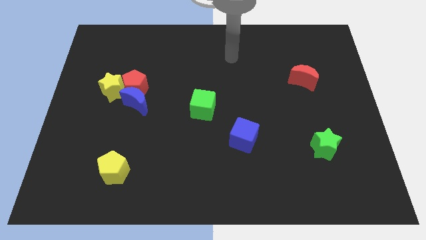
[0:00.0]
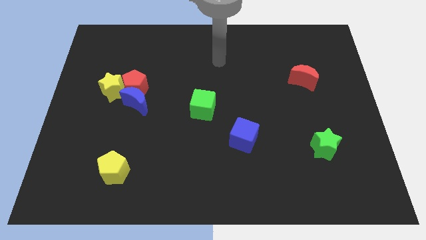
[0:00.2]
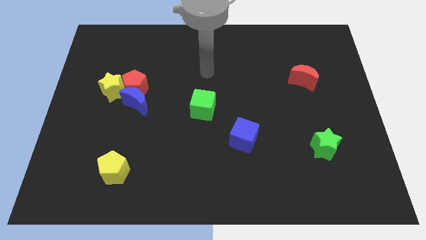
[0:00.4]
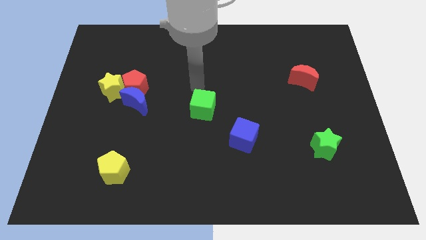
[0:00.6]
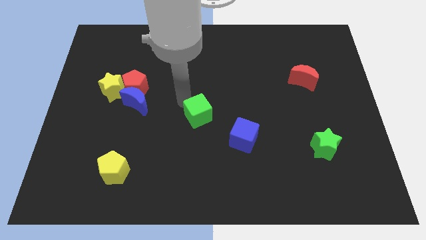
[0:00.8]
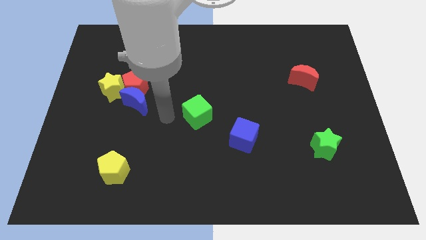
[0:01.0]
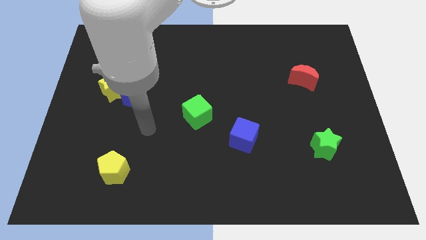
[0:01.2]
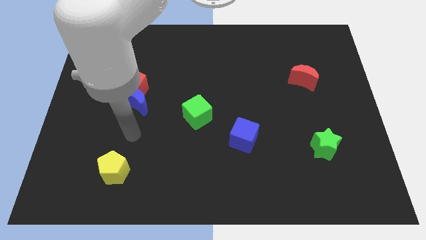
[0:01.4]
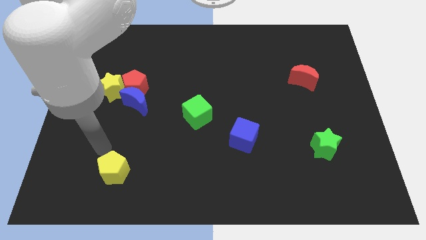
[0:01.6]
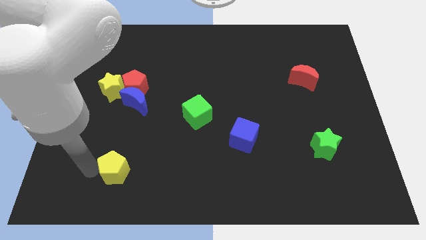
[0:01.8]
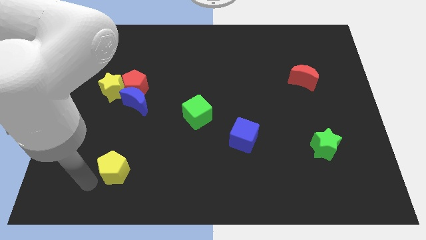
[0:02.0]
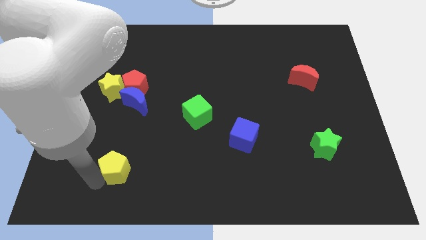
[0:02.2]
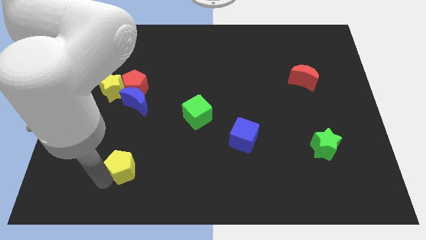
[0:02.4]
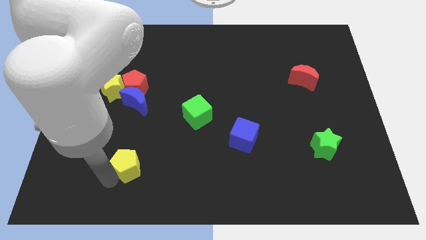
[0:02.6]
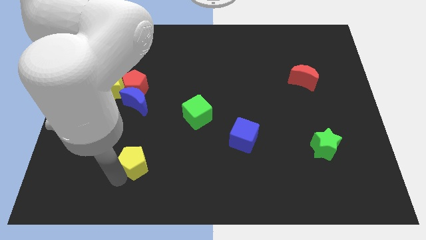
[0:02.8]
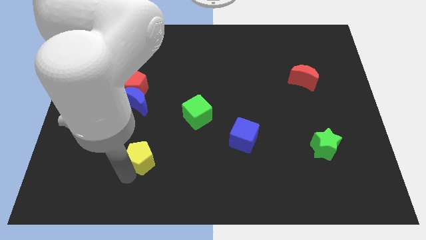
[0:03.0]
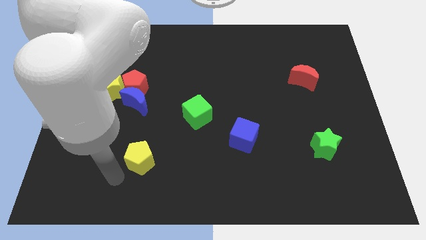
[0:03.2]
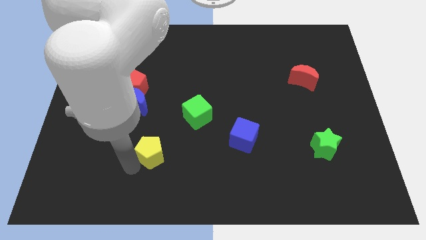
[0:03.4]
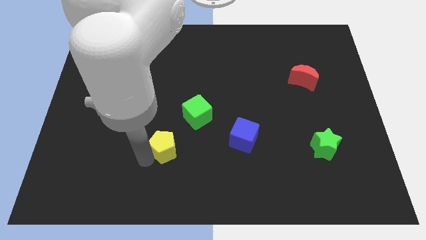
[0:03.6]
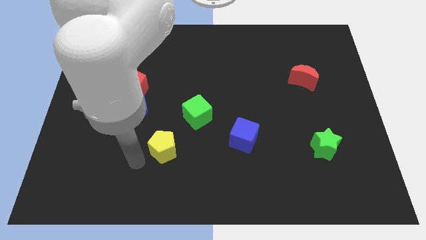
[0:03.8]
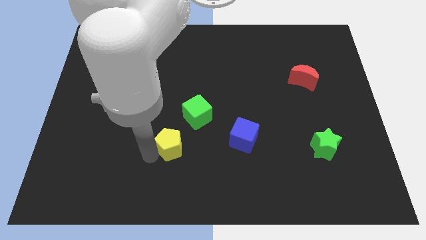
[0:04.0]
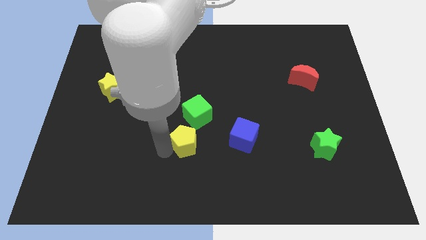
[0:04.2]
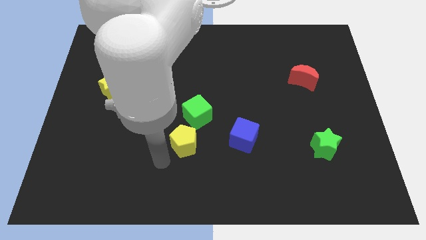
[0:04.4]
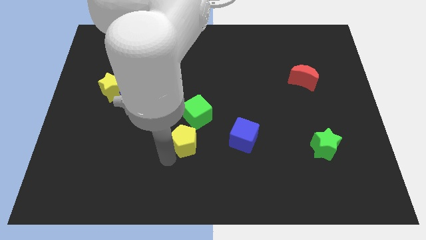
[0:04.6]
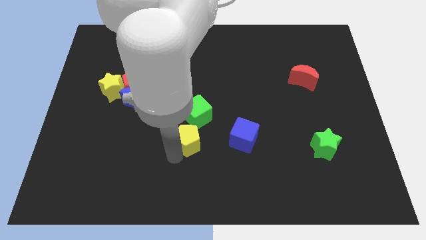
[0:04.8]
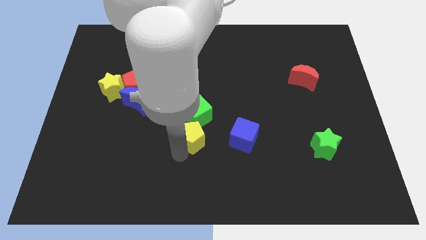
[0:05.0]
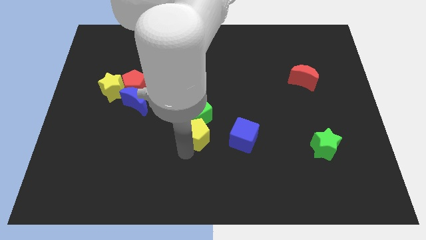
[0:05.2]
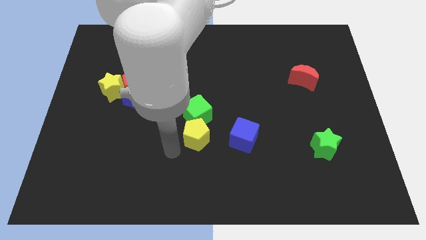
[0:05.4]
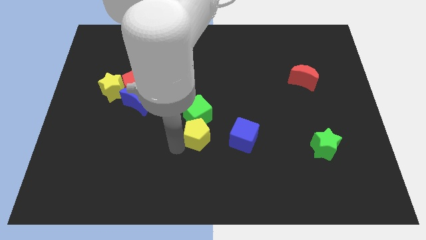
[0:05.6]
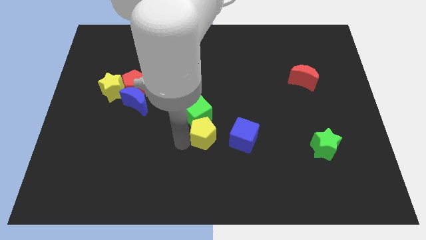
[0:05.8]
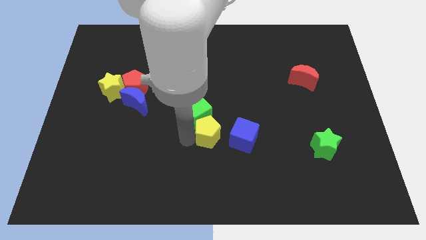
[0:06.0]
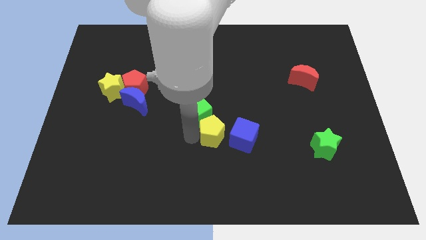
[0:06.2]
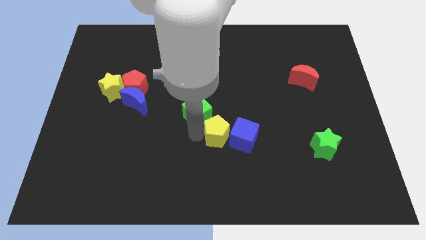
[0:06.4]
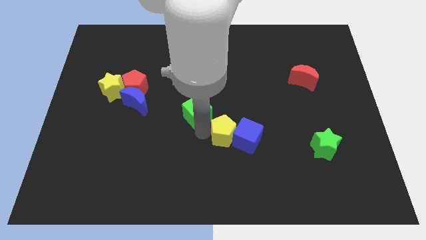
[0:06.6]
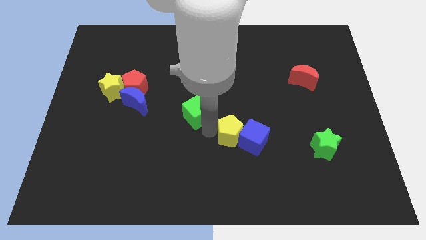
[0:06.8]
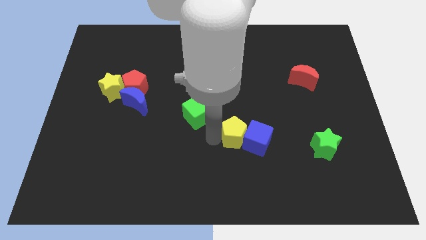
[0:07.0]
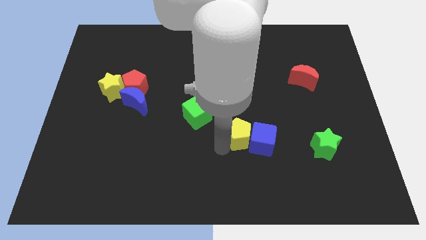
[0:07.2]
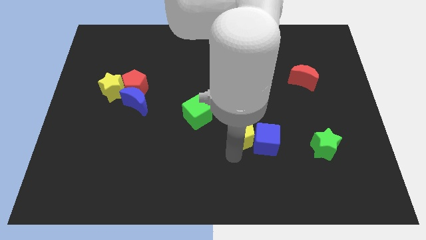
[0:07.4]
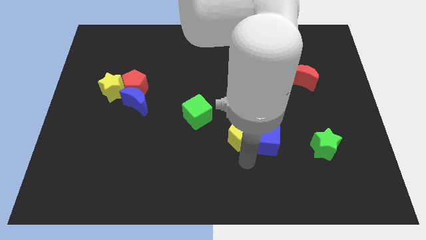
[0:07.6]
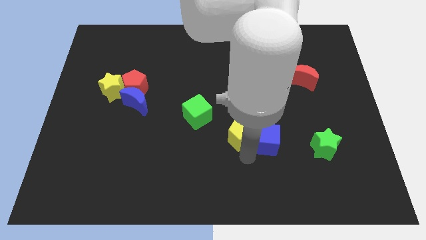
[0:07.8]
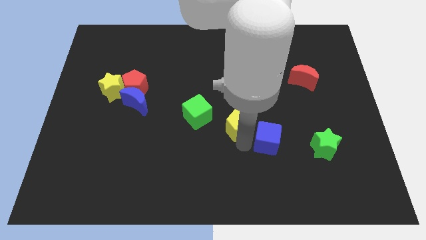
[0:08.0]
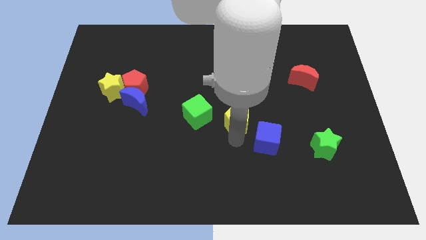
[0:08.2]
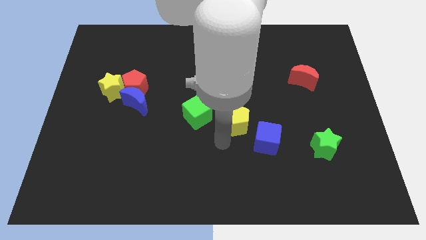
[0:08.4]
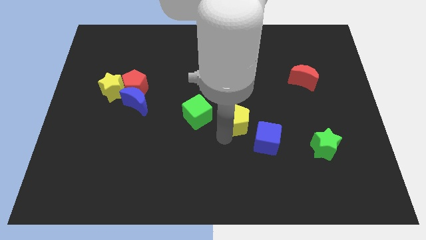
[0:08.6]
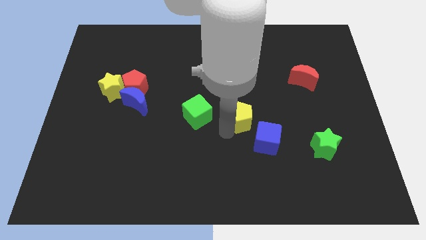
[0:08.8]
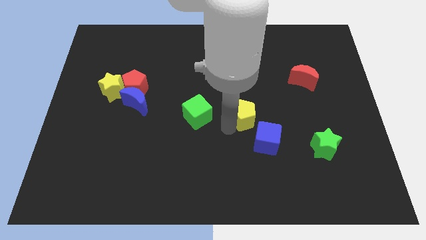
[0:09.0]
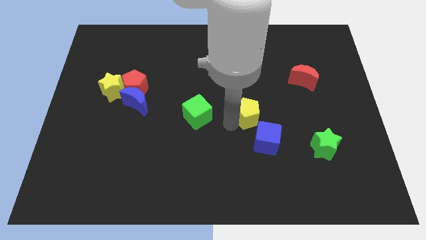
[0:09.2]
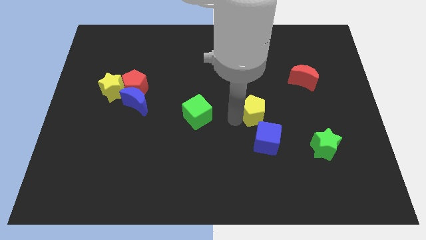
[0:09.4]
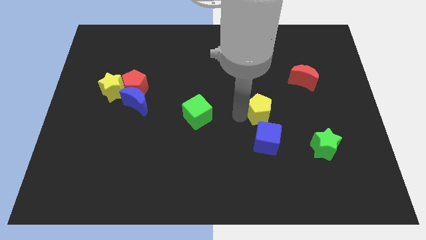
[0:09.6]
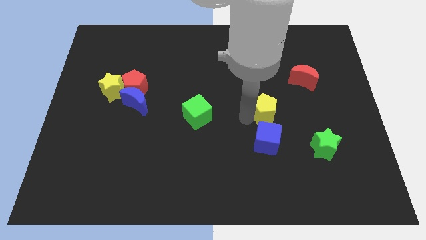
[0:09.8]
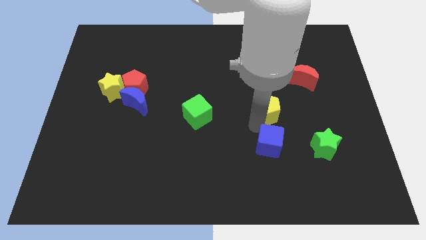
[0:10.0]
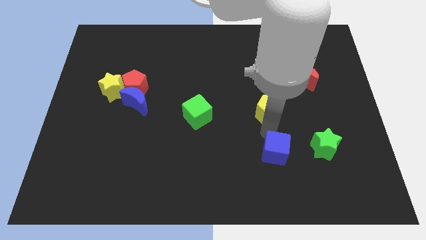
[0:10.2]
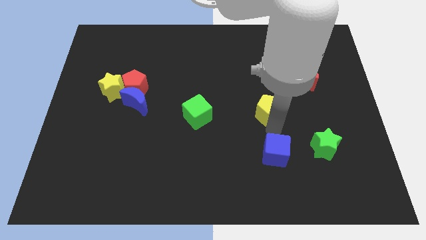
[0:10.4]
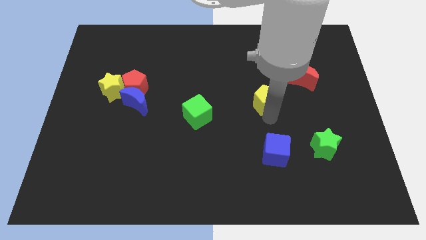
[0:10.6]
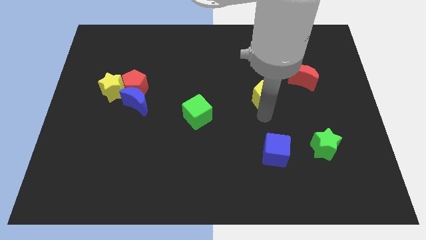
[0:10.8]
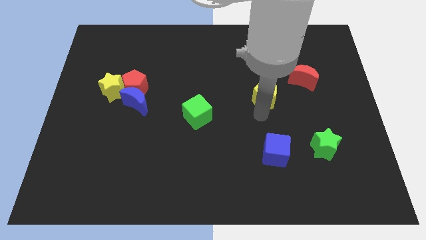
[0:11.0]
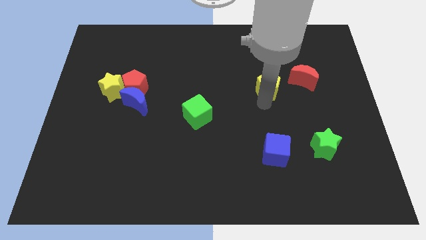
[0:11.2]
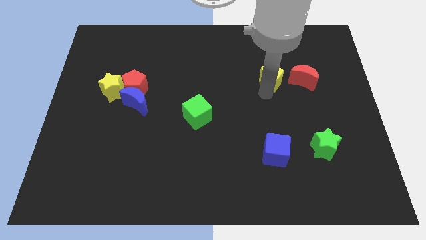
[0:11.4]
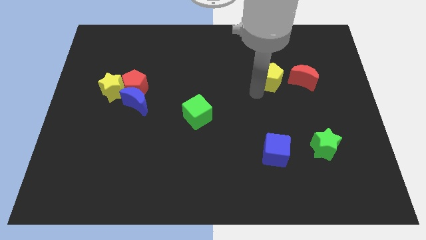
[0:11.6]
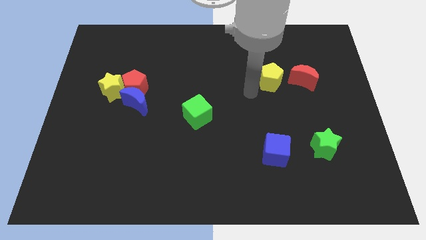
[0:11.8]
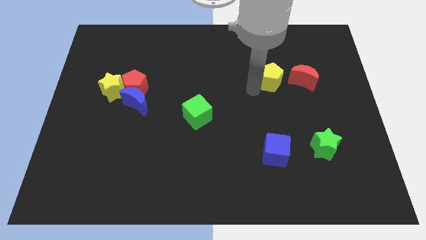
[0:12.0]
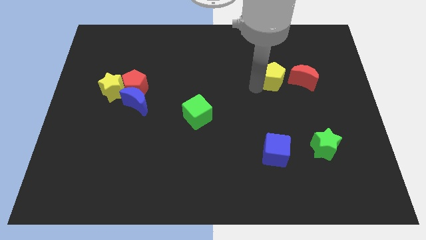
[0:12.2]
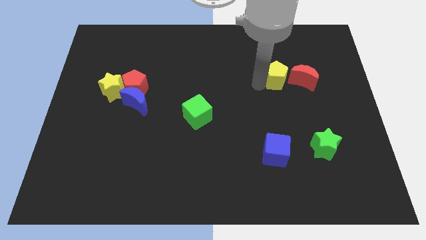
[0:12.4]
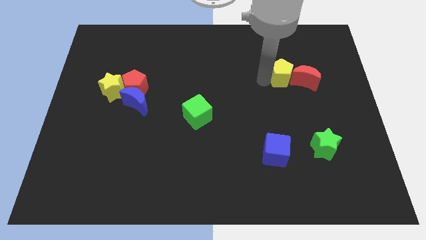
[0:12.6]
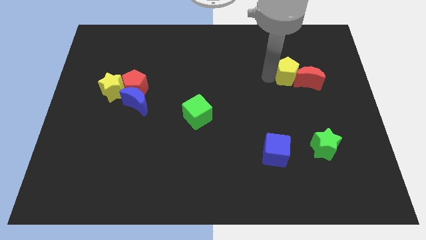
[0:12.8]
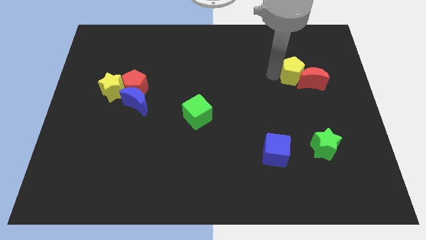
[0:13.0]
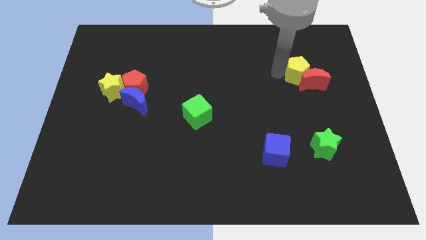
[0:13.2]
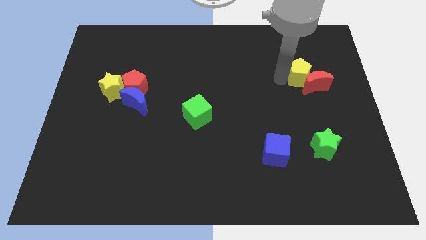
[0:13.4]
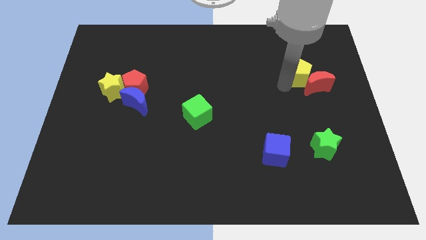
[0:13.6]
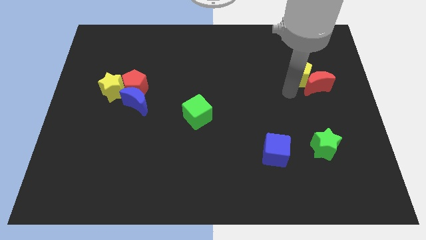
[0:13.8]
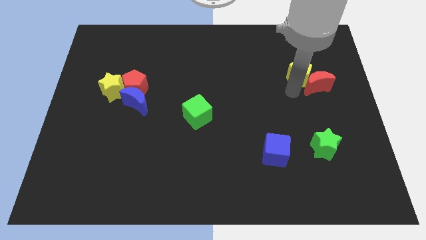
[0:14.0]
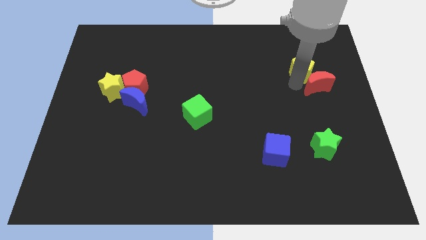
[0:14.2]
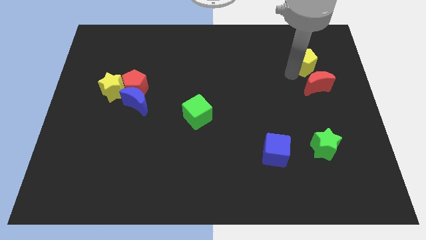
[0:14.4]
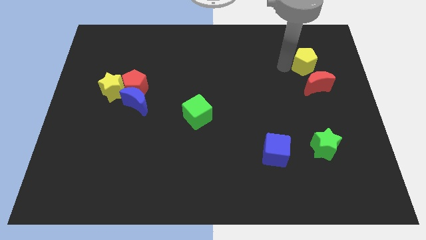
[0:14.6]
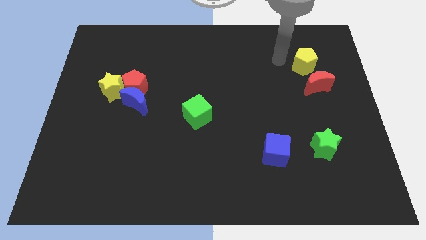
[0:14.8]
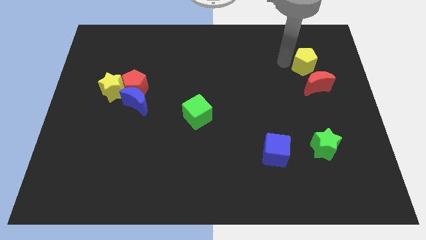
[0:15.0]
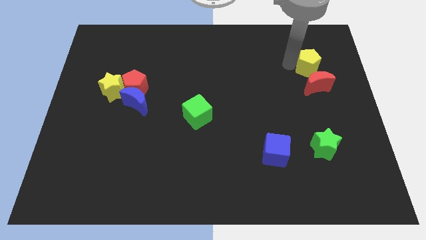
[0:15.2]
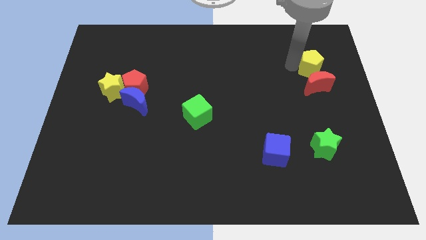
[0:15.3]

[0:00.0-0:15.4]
slide the yellow pentagon to the top right of the red moon
